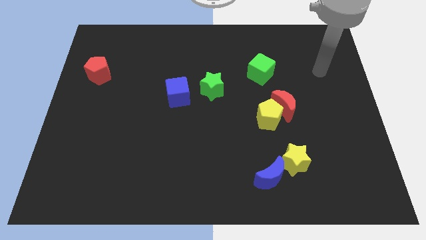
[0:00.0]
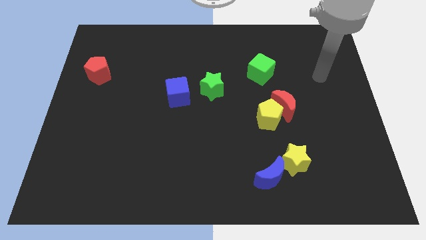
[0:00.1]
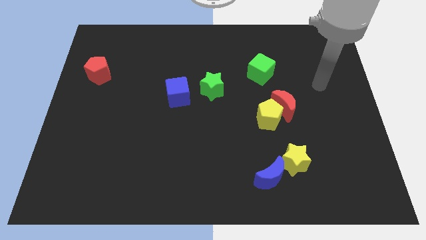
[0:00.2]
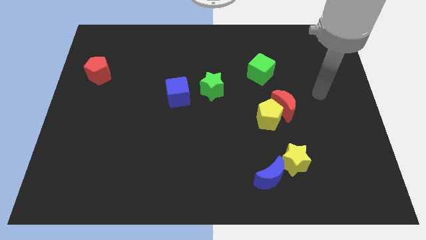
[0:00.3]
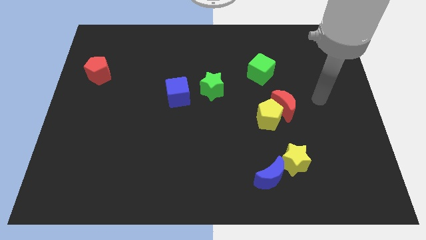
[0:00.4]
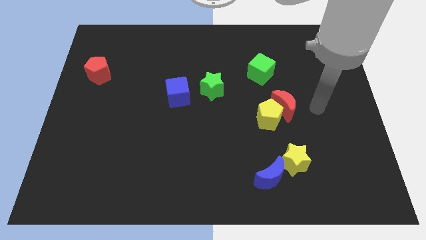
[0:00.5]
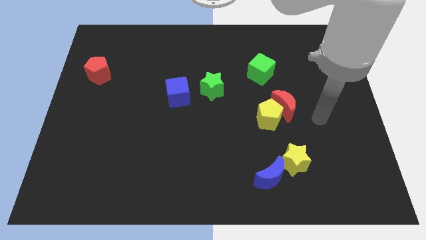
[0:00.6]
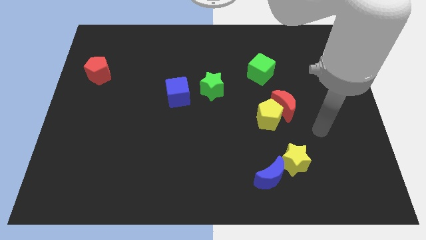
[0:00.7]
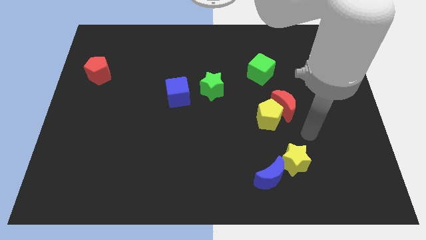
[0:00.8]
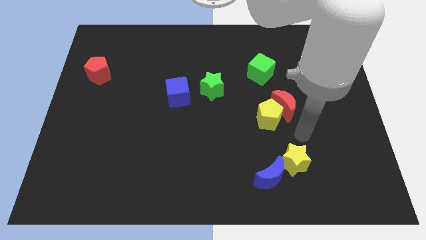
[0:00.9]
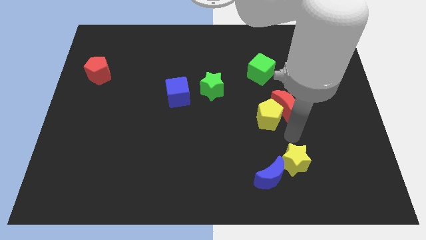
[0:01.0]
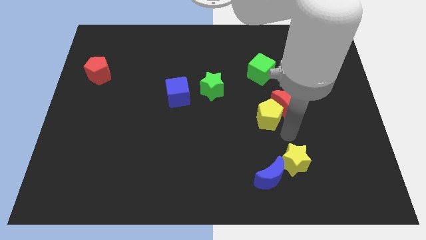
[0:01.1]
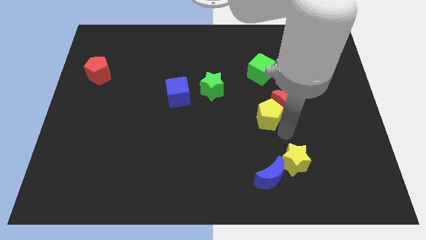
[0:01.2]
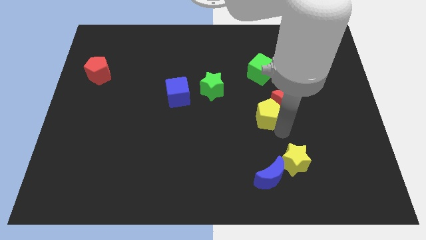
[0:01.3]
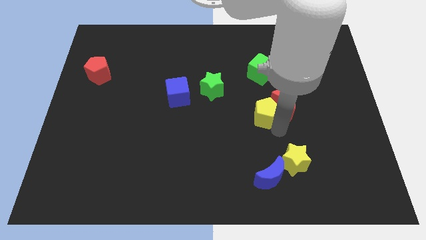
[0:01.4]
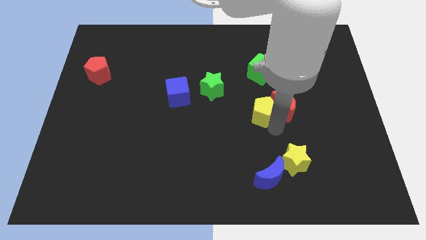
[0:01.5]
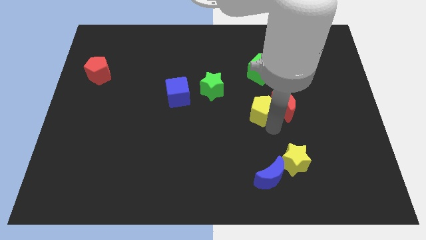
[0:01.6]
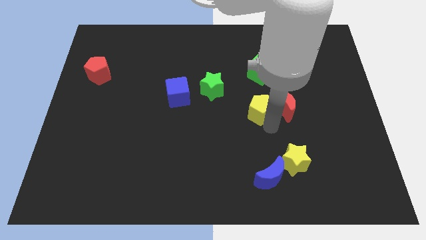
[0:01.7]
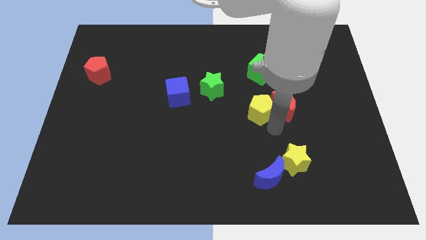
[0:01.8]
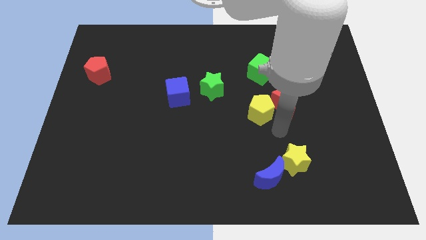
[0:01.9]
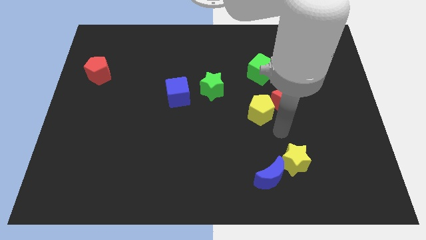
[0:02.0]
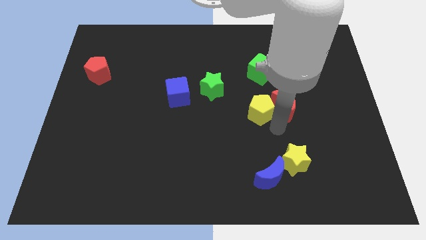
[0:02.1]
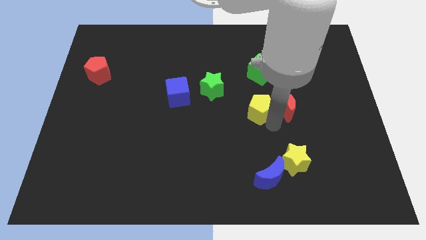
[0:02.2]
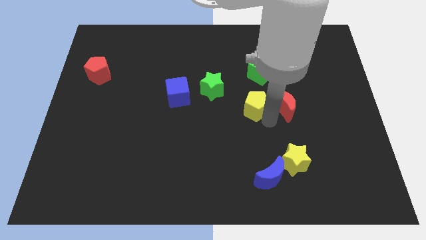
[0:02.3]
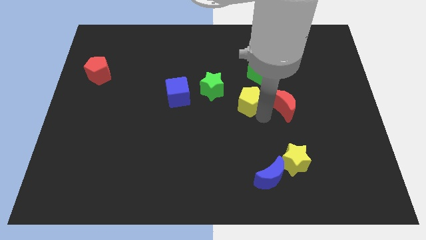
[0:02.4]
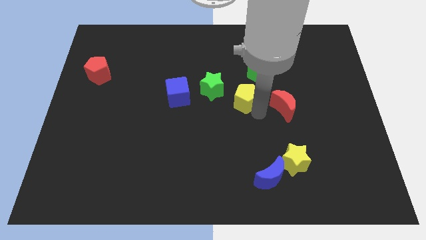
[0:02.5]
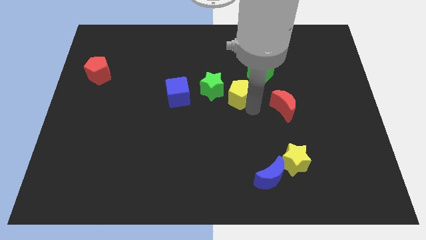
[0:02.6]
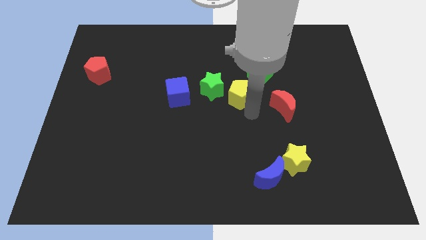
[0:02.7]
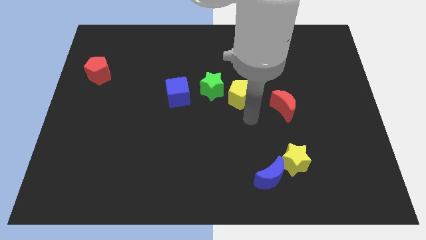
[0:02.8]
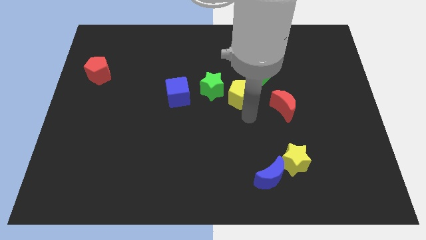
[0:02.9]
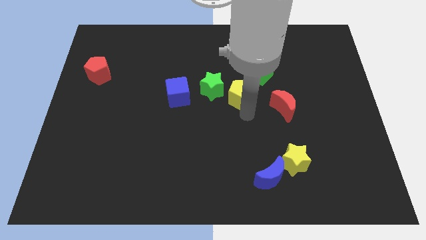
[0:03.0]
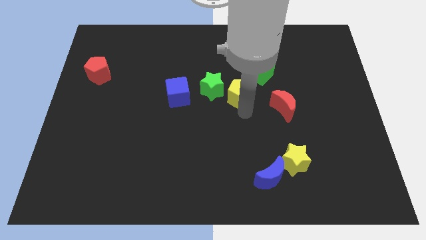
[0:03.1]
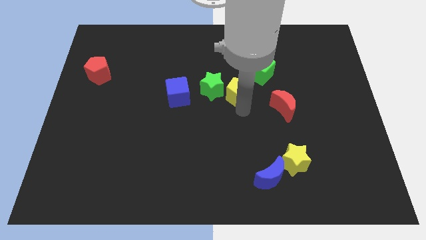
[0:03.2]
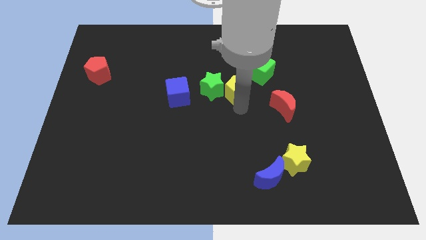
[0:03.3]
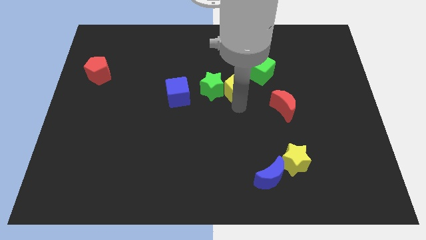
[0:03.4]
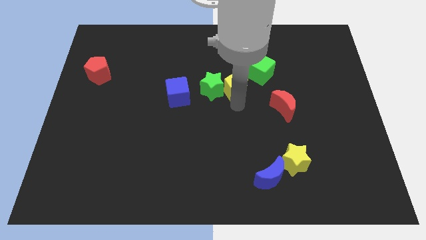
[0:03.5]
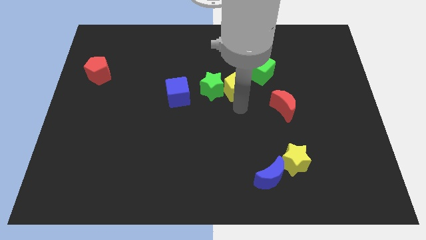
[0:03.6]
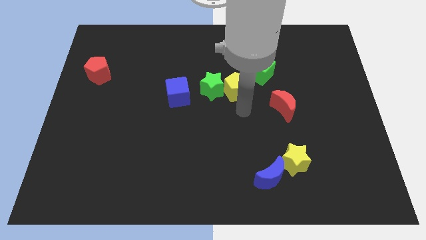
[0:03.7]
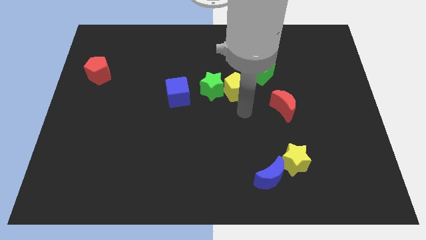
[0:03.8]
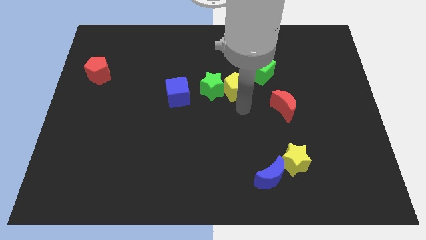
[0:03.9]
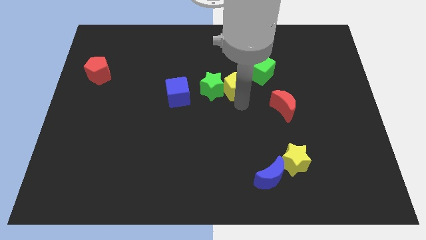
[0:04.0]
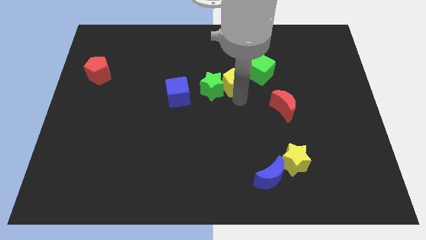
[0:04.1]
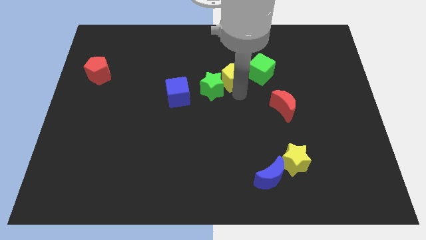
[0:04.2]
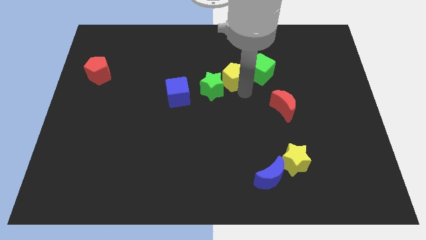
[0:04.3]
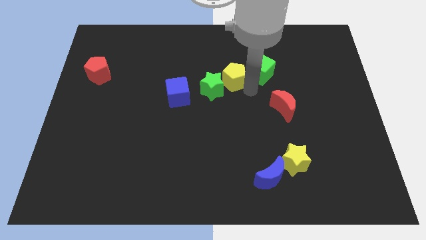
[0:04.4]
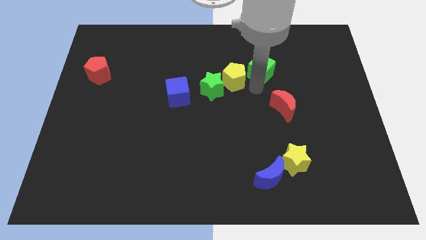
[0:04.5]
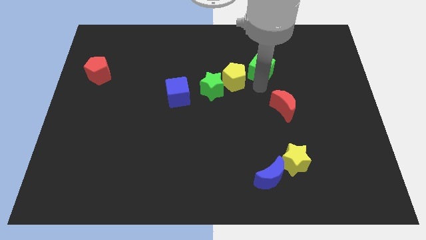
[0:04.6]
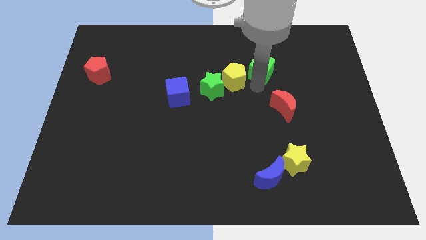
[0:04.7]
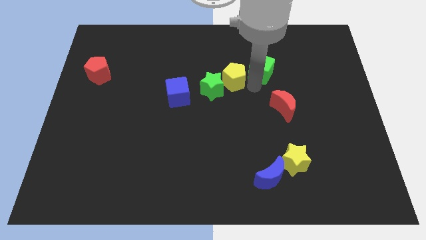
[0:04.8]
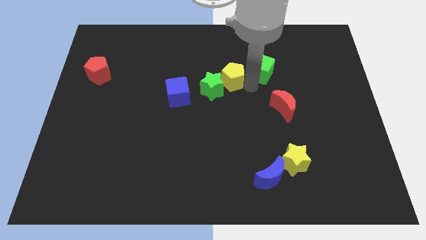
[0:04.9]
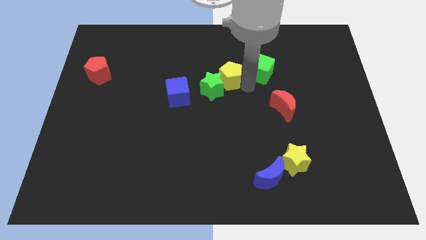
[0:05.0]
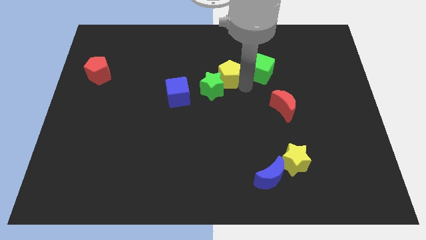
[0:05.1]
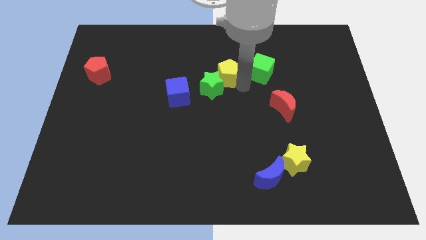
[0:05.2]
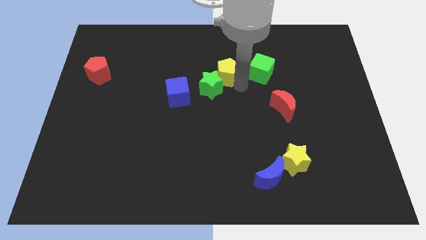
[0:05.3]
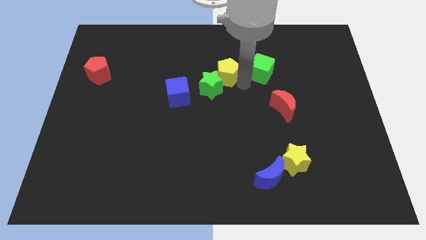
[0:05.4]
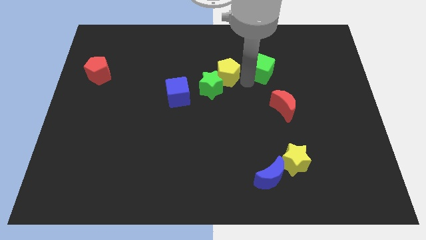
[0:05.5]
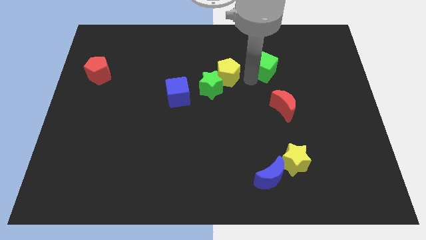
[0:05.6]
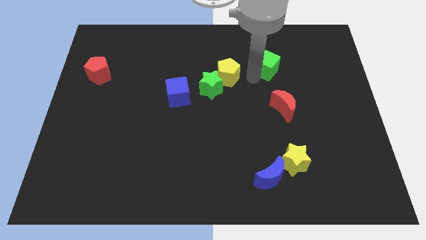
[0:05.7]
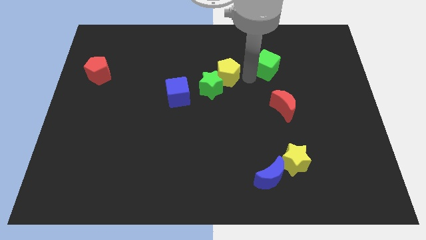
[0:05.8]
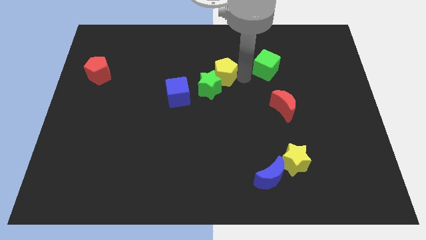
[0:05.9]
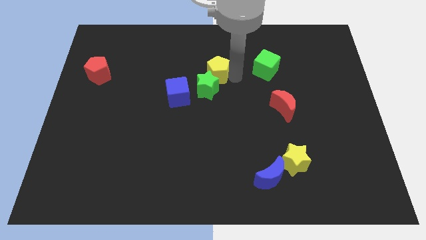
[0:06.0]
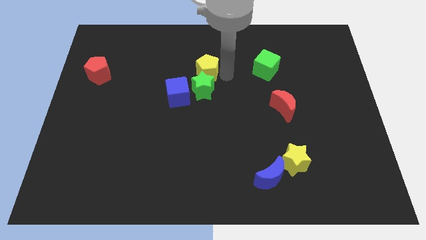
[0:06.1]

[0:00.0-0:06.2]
put the yellow pentagon to the top left side of the green star

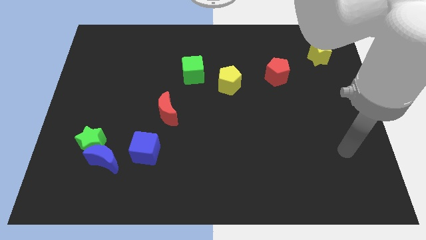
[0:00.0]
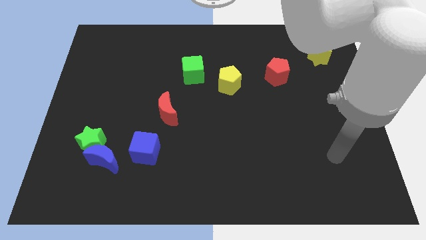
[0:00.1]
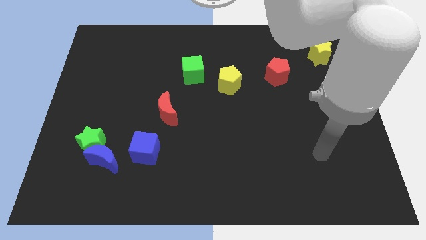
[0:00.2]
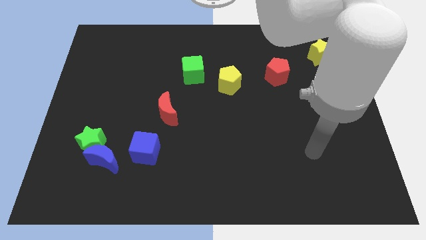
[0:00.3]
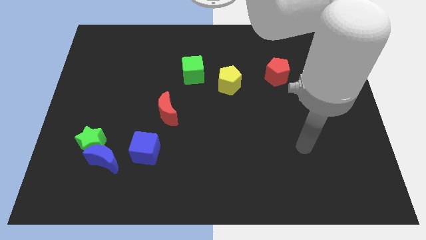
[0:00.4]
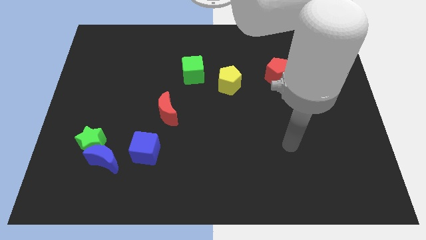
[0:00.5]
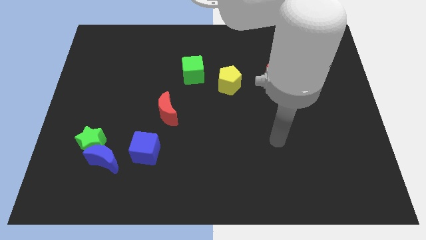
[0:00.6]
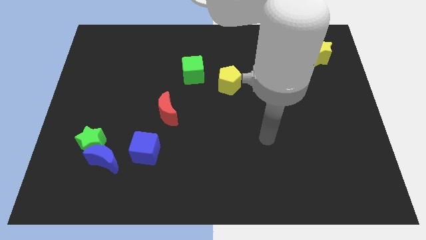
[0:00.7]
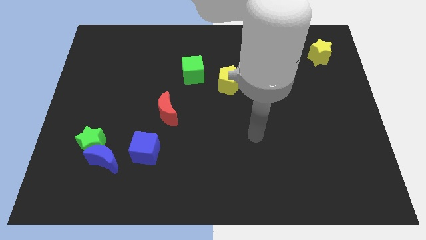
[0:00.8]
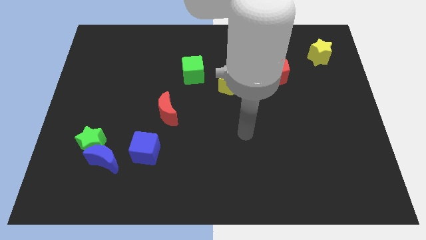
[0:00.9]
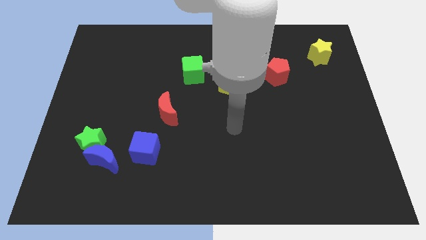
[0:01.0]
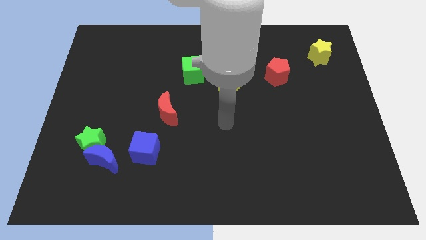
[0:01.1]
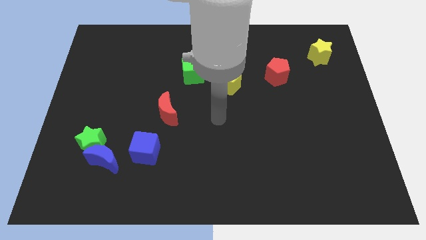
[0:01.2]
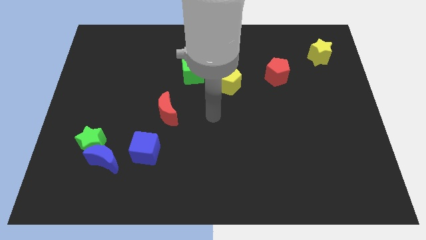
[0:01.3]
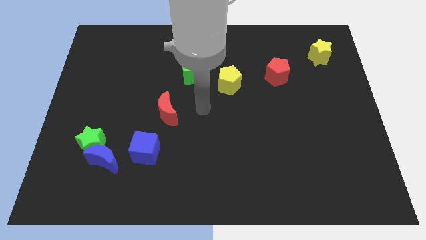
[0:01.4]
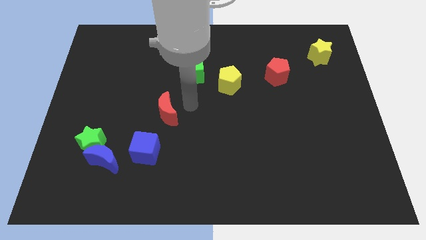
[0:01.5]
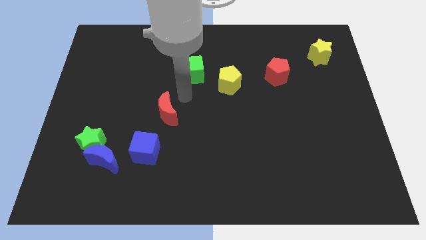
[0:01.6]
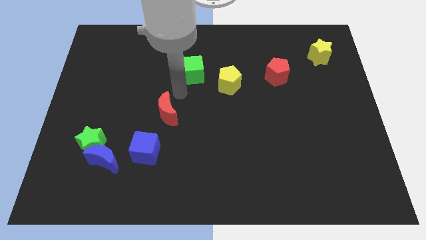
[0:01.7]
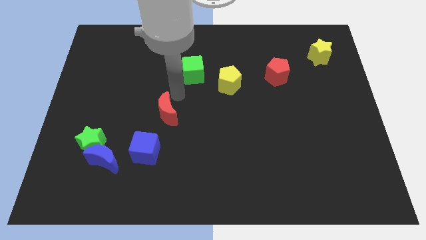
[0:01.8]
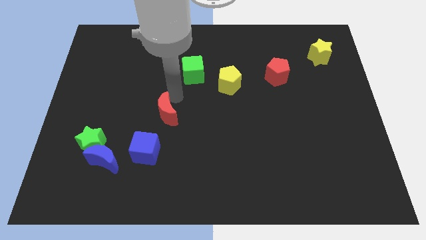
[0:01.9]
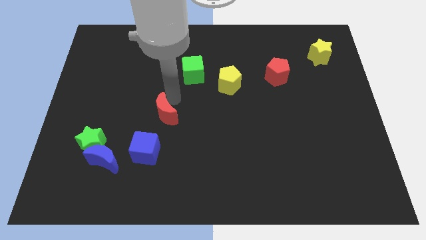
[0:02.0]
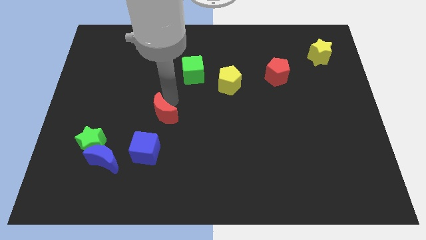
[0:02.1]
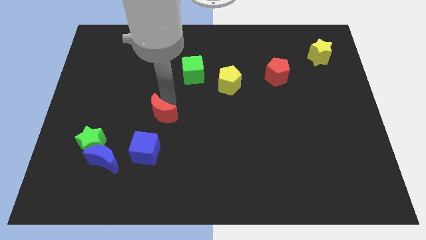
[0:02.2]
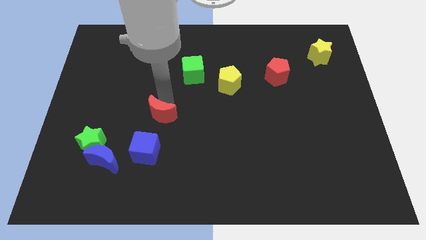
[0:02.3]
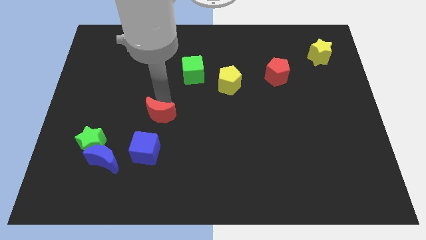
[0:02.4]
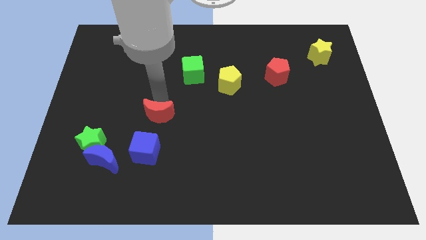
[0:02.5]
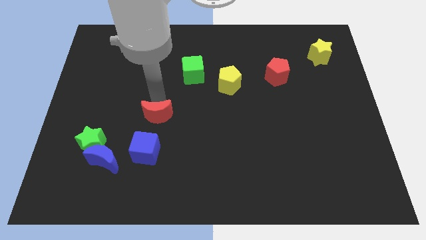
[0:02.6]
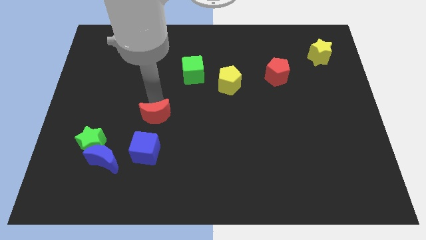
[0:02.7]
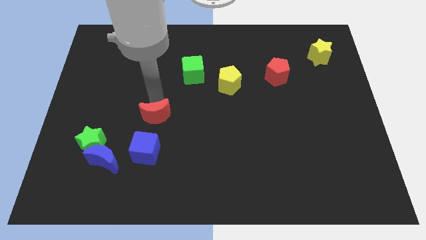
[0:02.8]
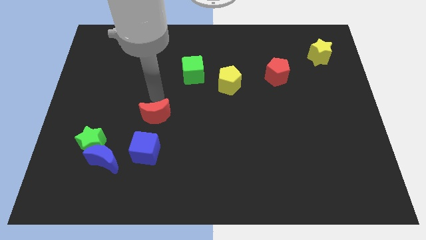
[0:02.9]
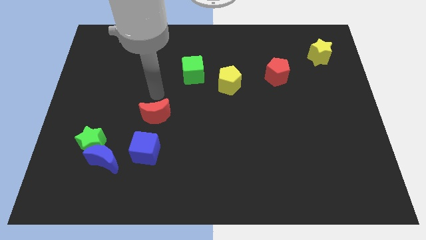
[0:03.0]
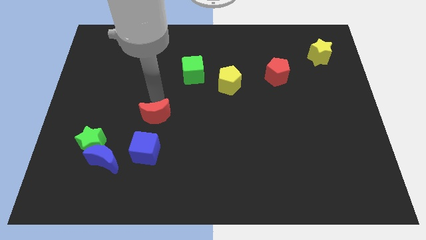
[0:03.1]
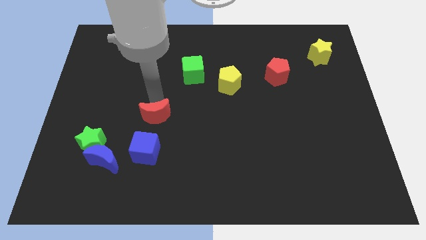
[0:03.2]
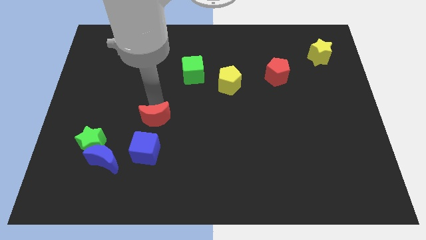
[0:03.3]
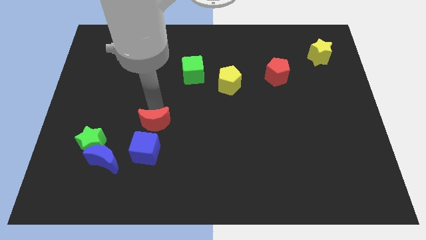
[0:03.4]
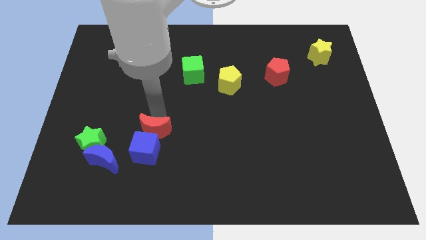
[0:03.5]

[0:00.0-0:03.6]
put the red moon to the top right of the blue moon
